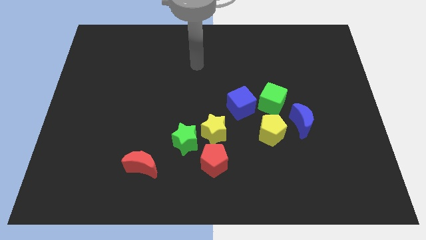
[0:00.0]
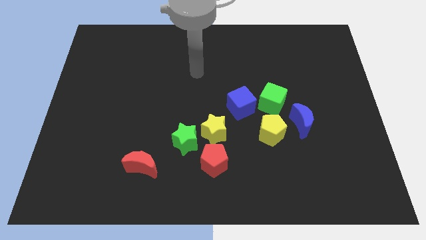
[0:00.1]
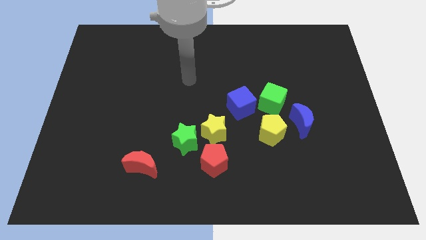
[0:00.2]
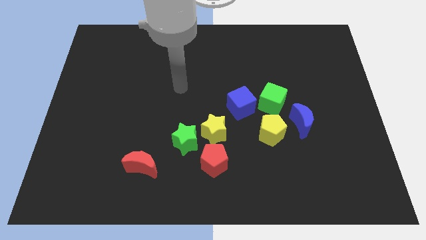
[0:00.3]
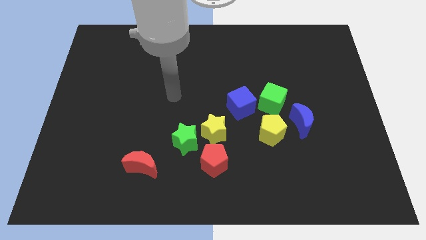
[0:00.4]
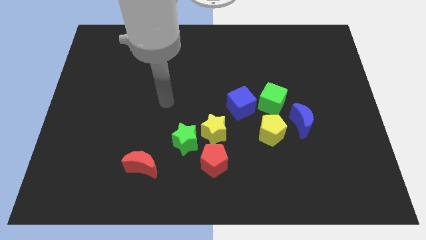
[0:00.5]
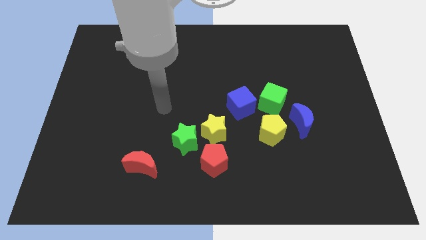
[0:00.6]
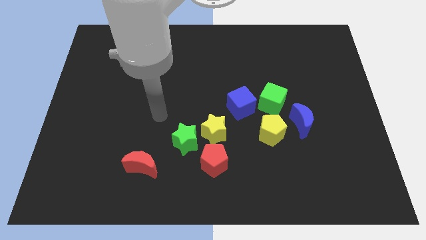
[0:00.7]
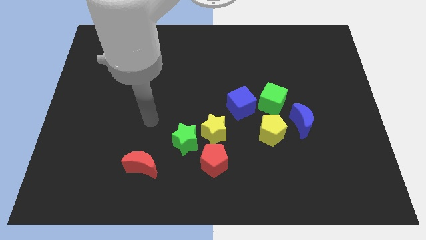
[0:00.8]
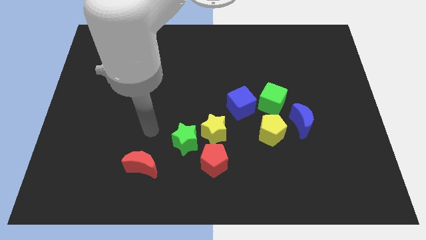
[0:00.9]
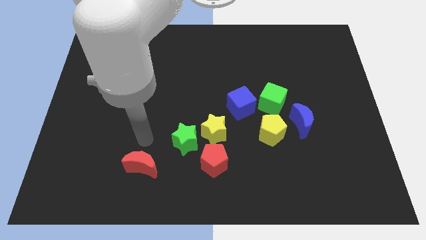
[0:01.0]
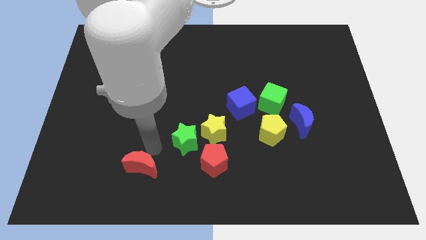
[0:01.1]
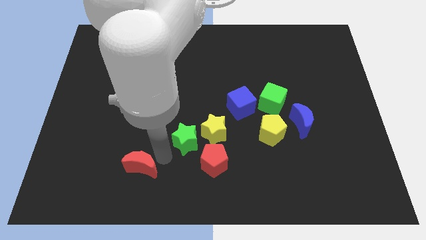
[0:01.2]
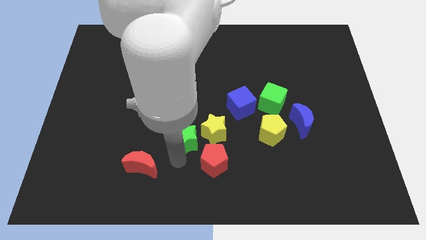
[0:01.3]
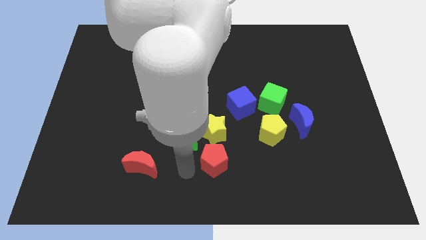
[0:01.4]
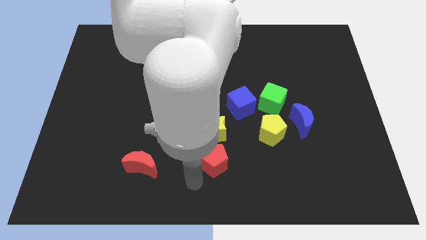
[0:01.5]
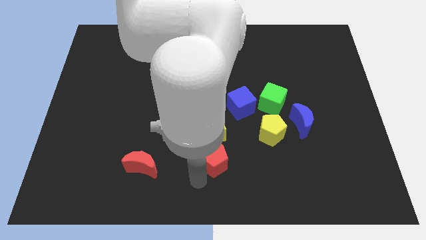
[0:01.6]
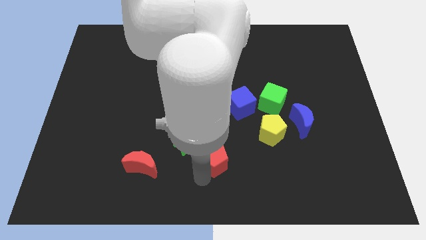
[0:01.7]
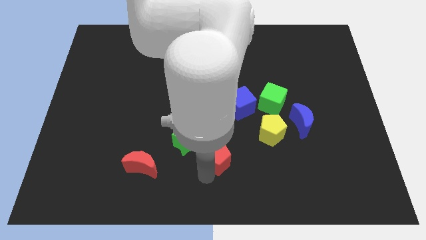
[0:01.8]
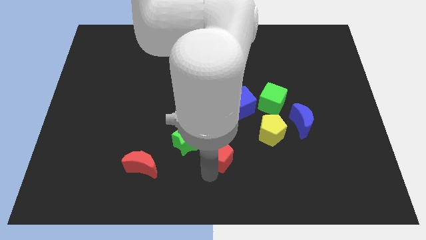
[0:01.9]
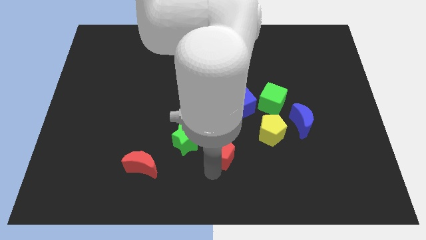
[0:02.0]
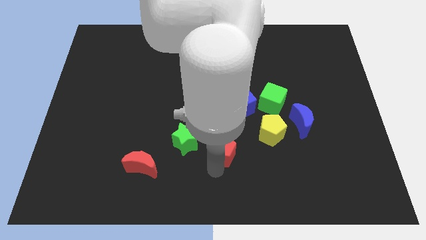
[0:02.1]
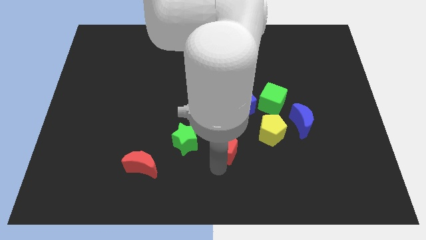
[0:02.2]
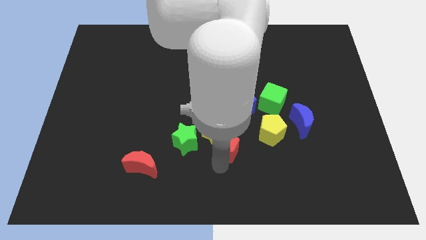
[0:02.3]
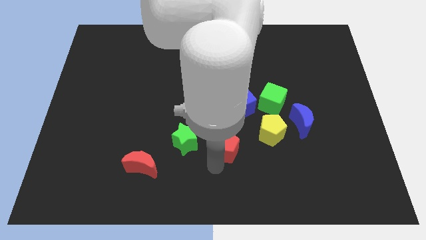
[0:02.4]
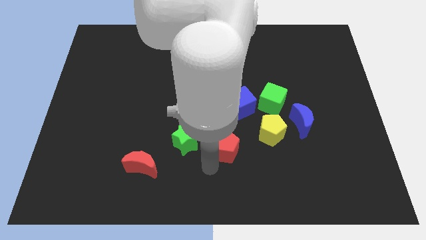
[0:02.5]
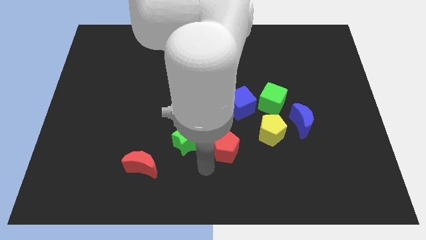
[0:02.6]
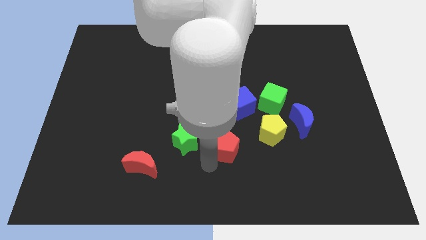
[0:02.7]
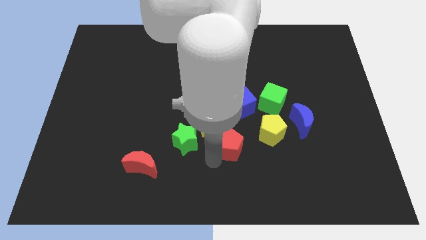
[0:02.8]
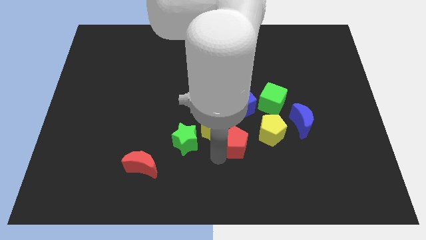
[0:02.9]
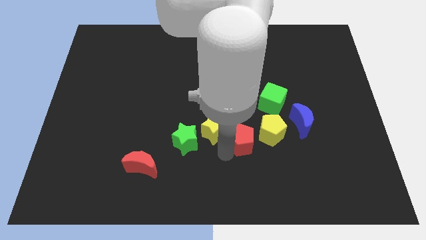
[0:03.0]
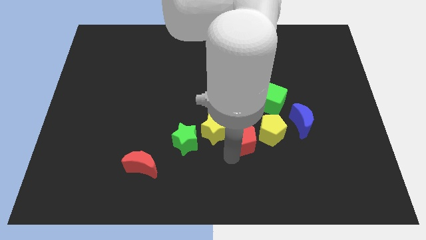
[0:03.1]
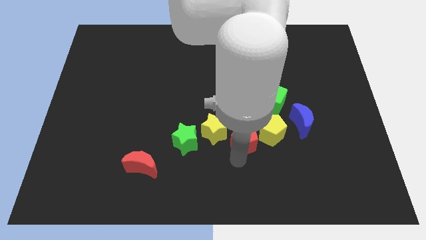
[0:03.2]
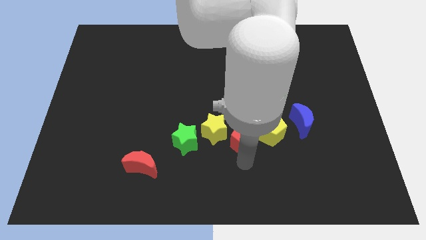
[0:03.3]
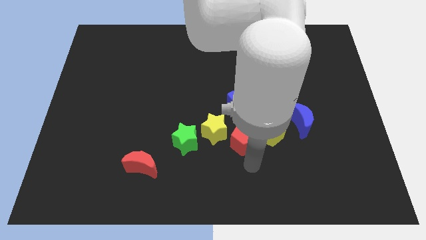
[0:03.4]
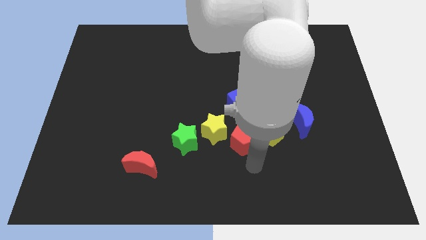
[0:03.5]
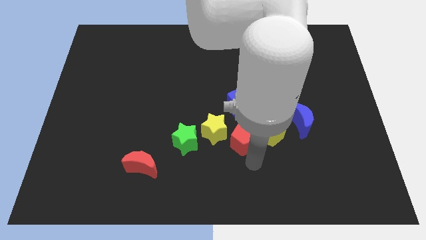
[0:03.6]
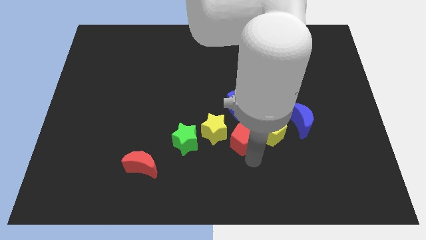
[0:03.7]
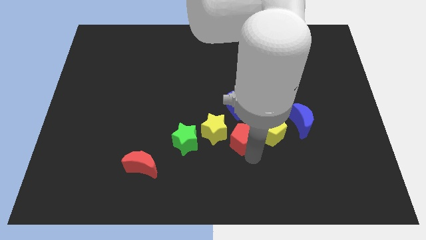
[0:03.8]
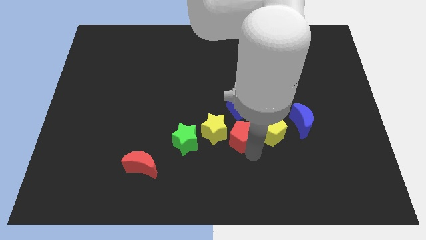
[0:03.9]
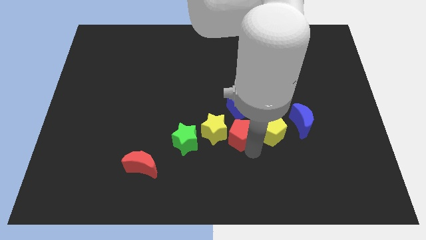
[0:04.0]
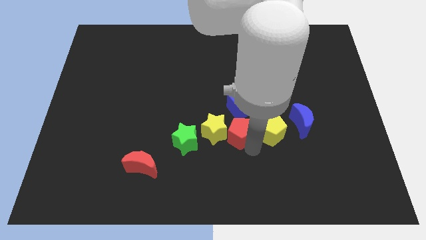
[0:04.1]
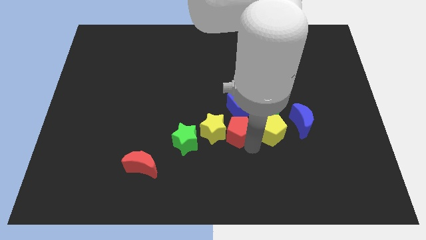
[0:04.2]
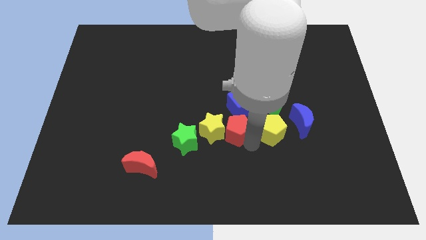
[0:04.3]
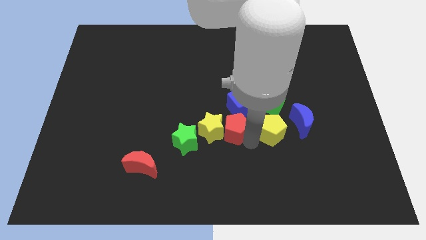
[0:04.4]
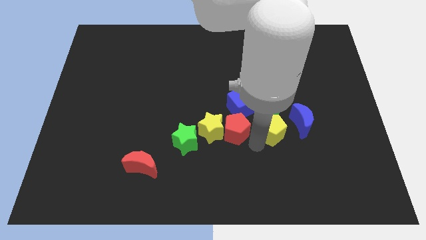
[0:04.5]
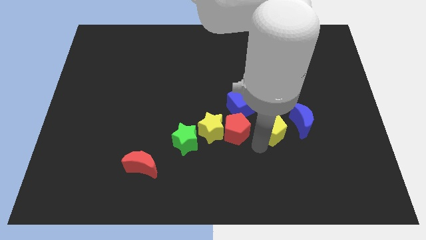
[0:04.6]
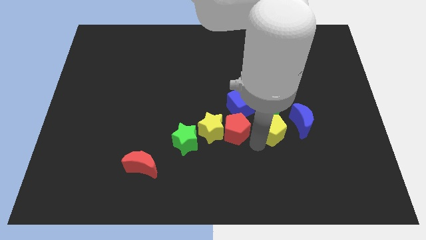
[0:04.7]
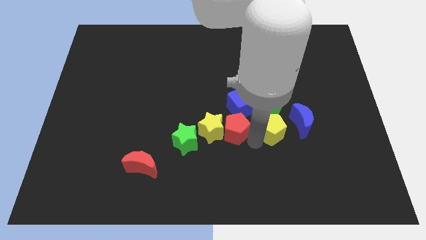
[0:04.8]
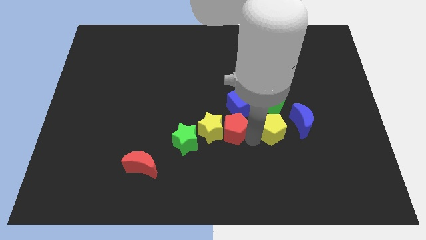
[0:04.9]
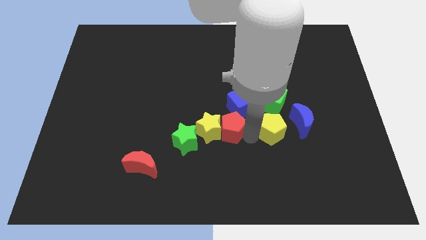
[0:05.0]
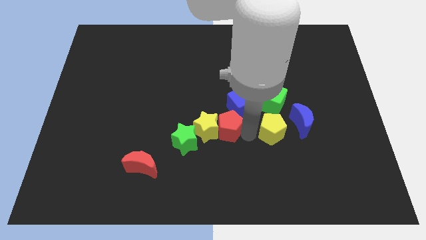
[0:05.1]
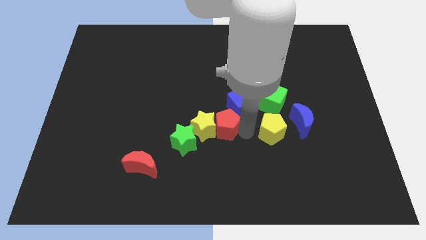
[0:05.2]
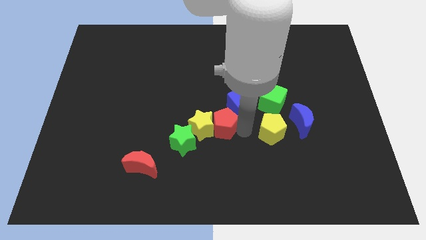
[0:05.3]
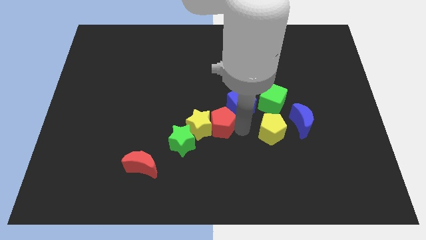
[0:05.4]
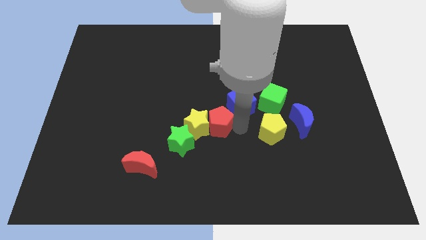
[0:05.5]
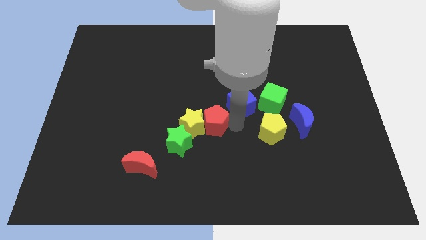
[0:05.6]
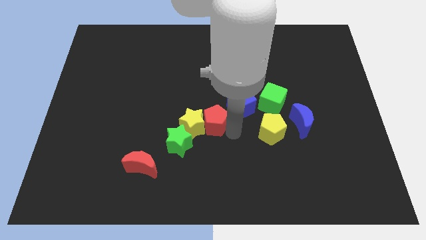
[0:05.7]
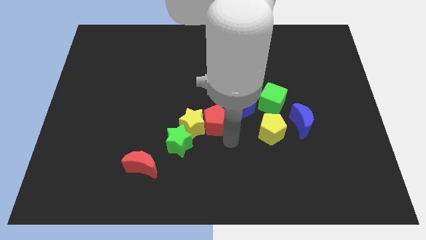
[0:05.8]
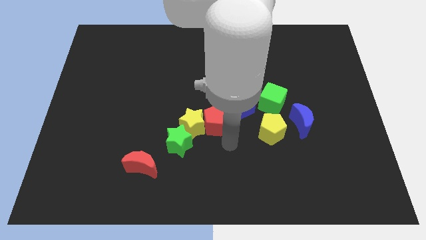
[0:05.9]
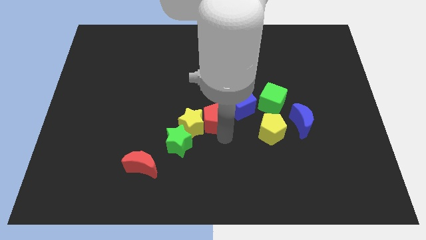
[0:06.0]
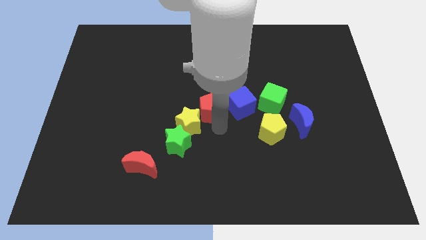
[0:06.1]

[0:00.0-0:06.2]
push the red pentagon to the top side of the yellow star
